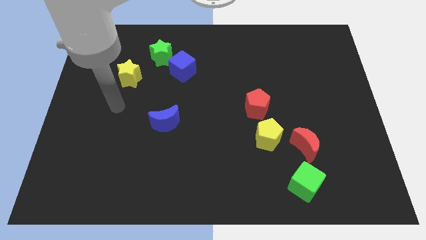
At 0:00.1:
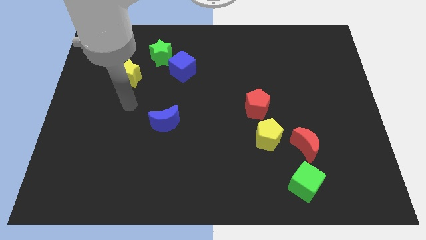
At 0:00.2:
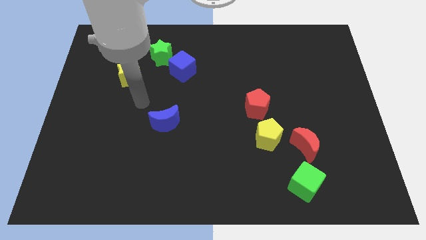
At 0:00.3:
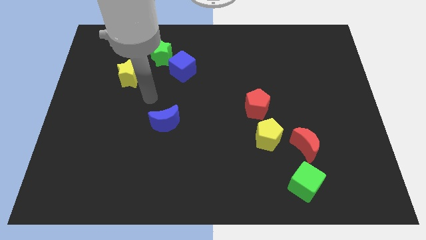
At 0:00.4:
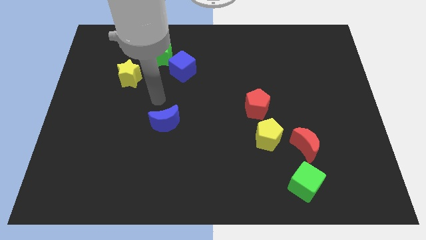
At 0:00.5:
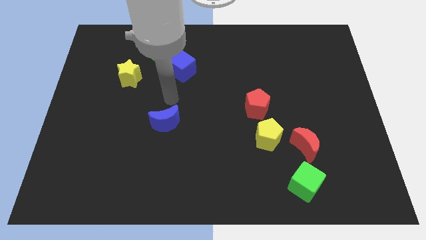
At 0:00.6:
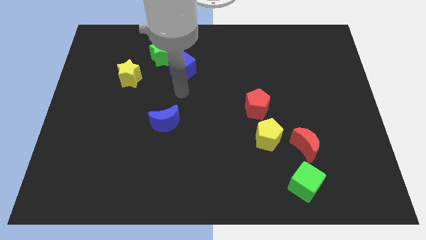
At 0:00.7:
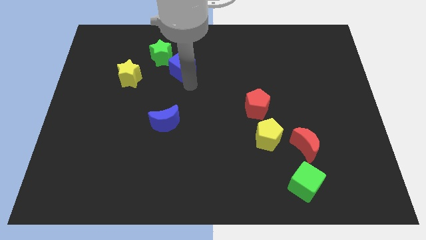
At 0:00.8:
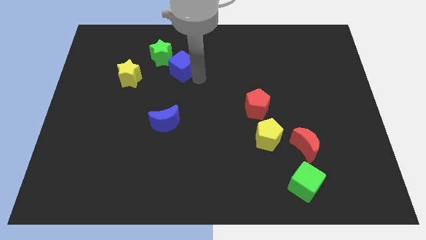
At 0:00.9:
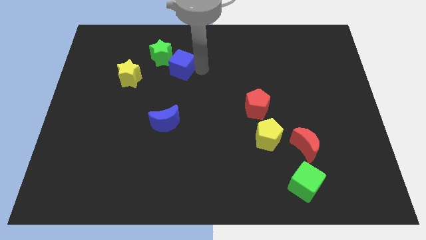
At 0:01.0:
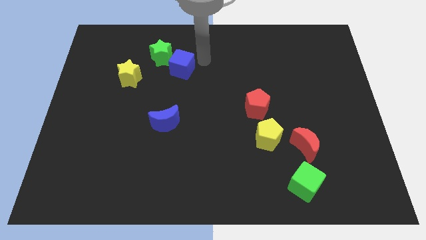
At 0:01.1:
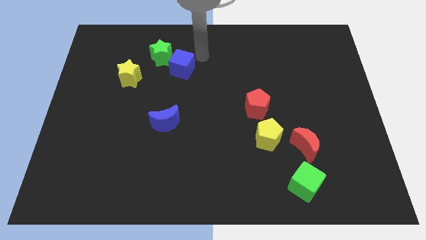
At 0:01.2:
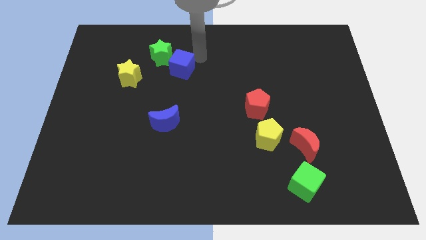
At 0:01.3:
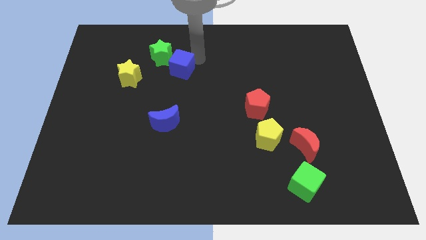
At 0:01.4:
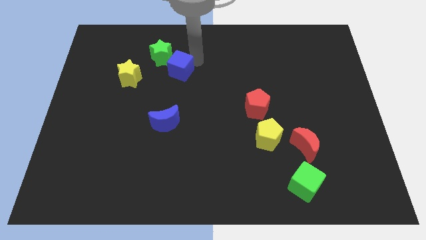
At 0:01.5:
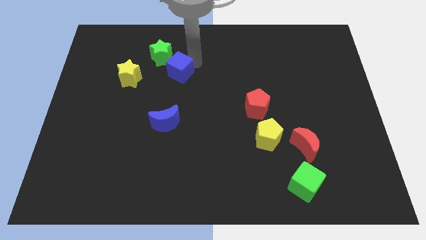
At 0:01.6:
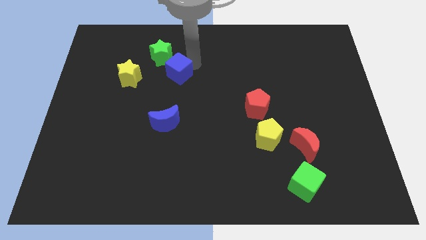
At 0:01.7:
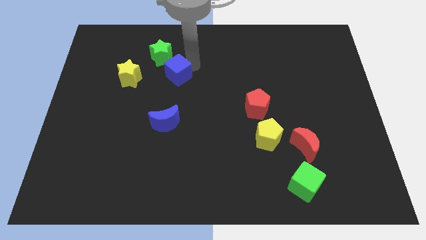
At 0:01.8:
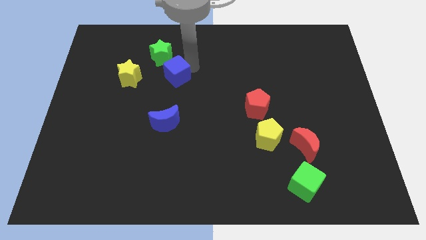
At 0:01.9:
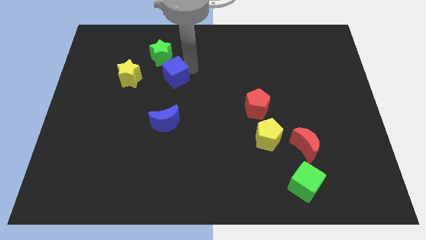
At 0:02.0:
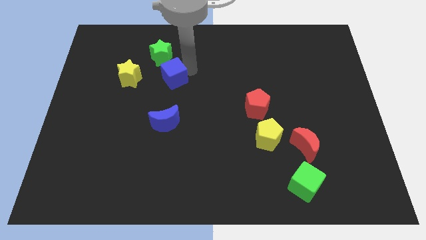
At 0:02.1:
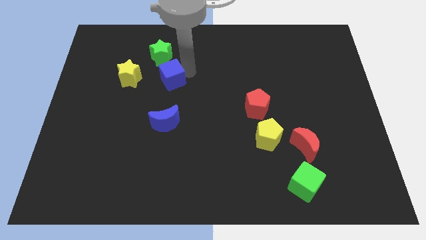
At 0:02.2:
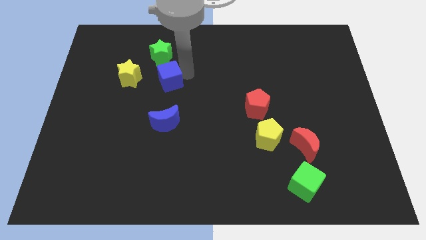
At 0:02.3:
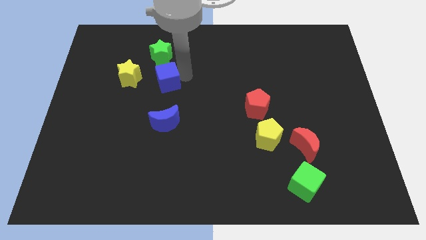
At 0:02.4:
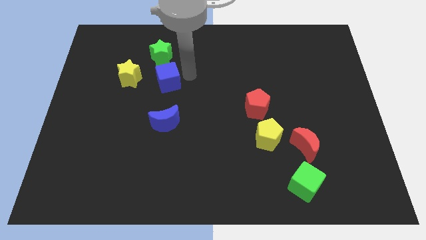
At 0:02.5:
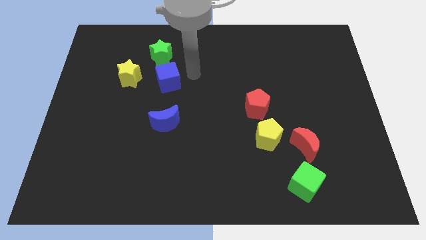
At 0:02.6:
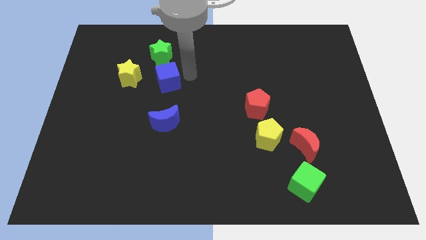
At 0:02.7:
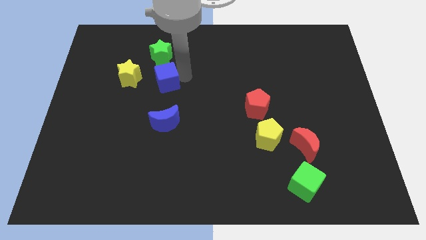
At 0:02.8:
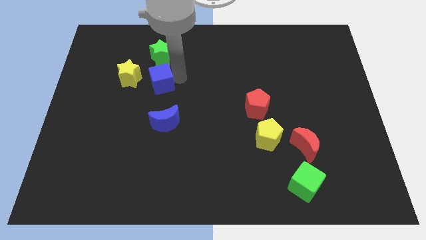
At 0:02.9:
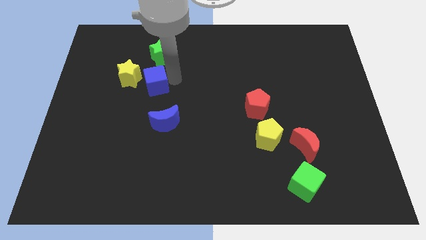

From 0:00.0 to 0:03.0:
slightly push the blue cube down and then to the left

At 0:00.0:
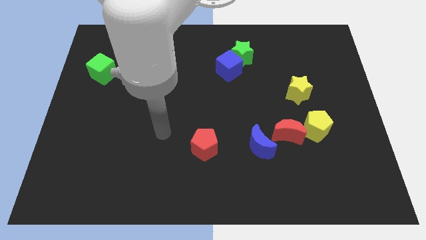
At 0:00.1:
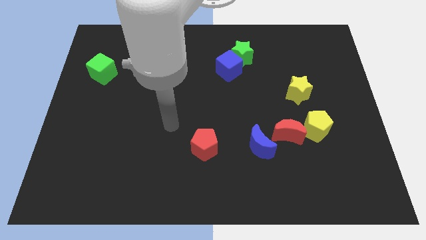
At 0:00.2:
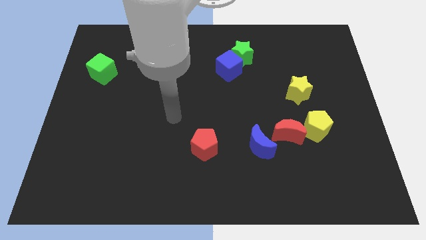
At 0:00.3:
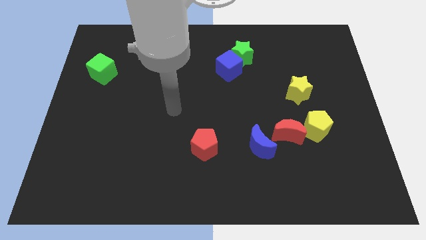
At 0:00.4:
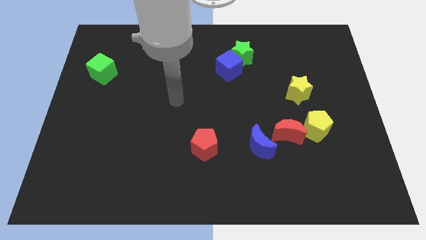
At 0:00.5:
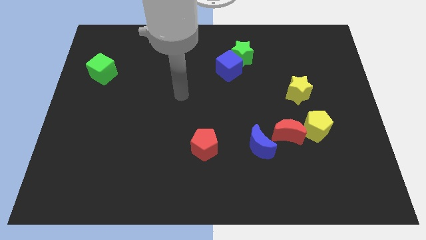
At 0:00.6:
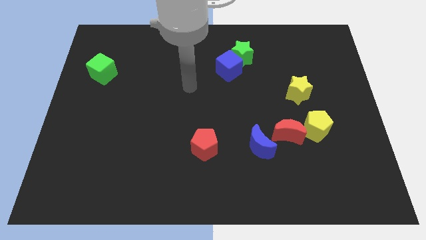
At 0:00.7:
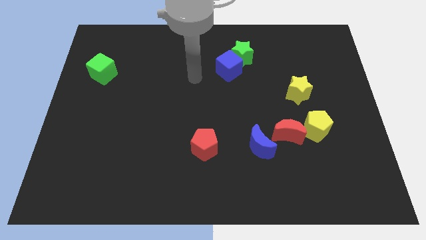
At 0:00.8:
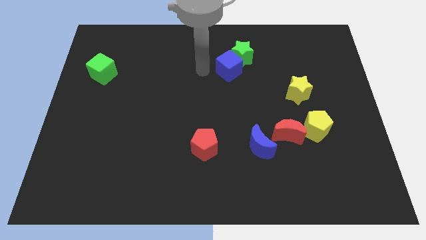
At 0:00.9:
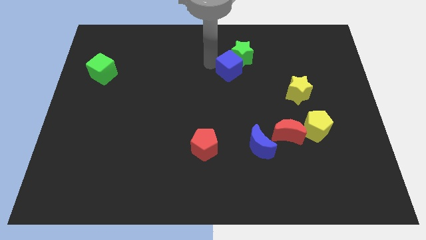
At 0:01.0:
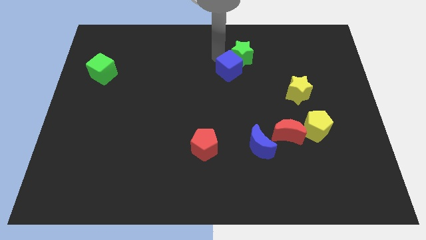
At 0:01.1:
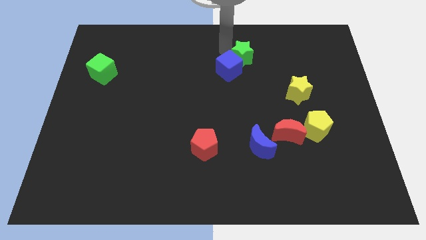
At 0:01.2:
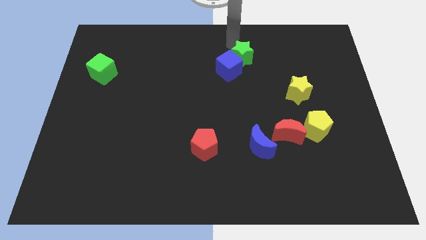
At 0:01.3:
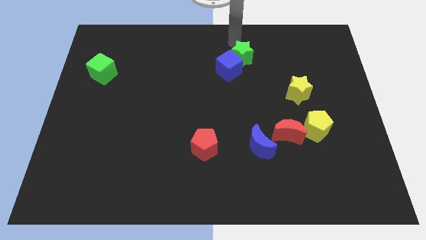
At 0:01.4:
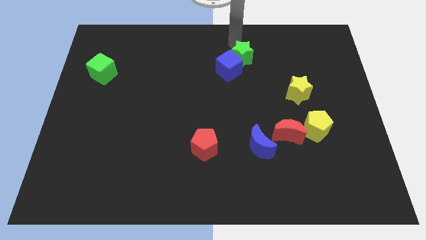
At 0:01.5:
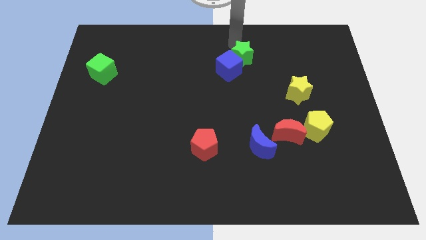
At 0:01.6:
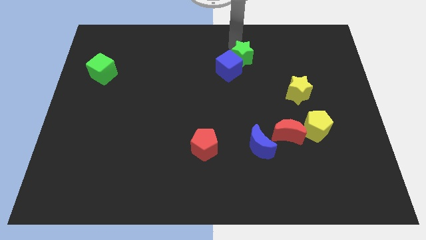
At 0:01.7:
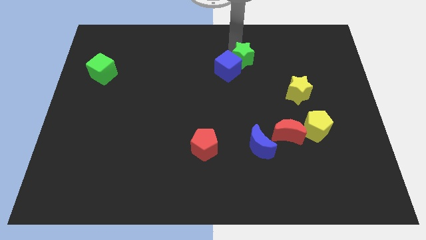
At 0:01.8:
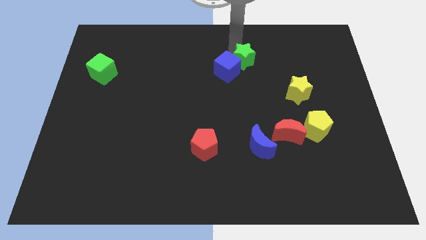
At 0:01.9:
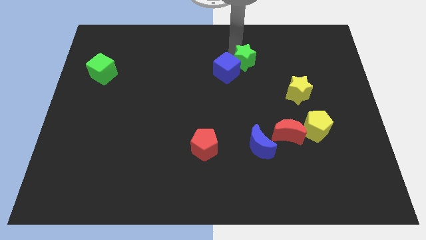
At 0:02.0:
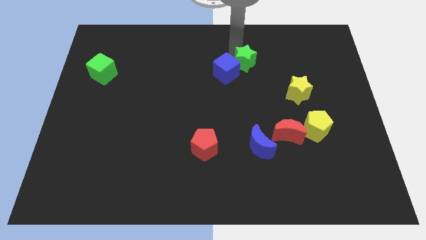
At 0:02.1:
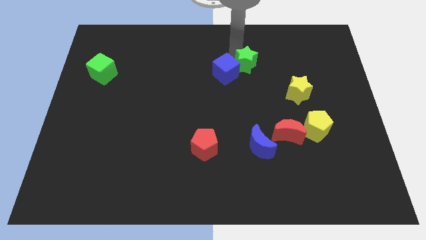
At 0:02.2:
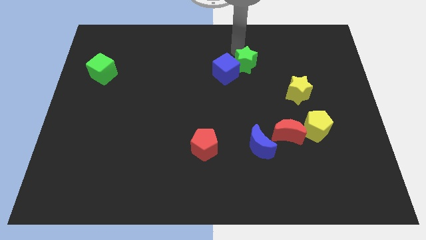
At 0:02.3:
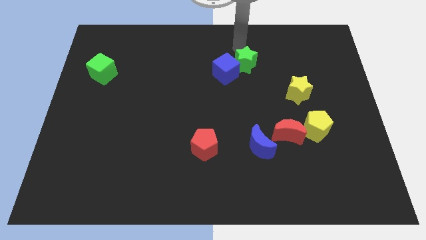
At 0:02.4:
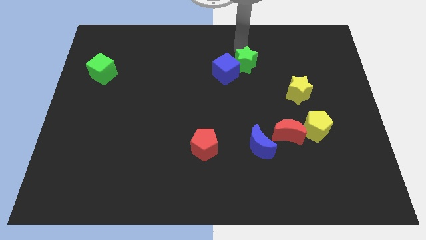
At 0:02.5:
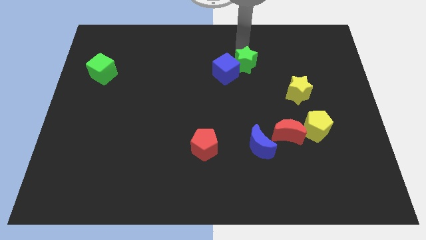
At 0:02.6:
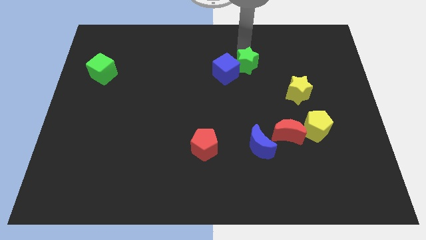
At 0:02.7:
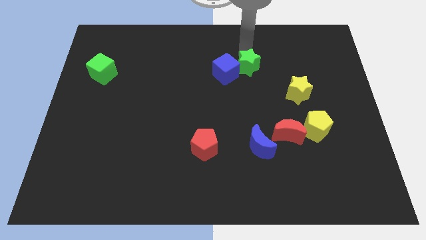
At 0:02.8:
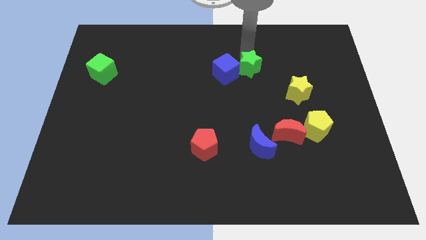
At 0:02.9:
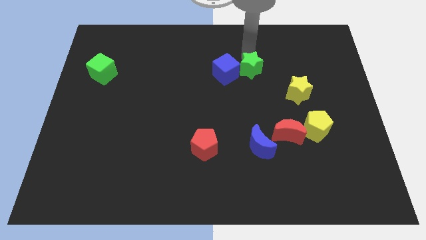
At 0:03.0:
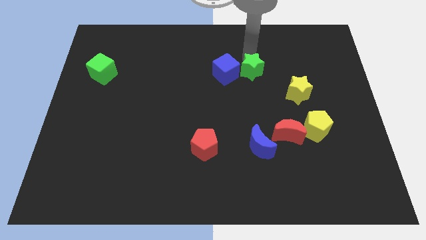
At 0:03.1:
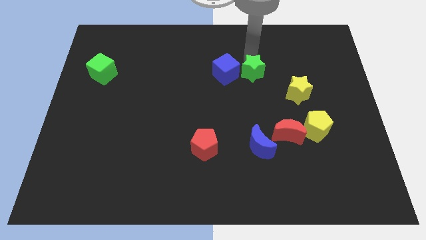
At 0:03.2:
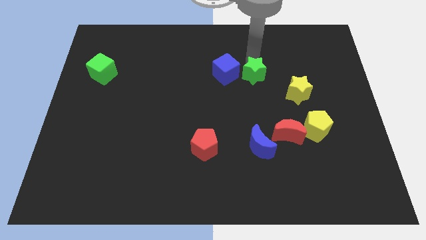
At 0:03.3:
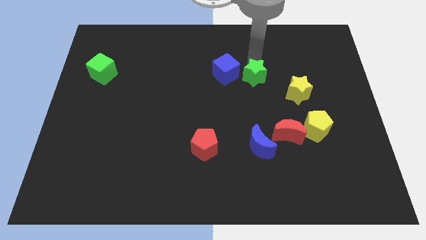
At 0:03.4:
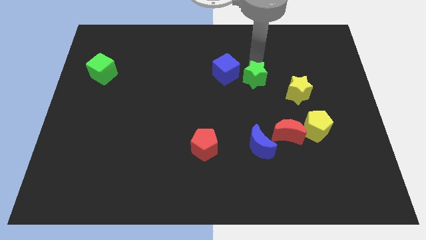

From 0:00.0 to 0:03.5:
slide the green star downwards a little bit

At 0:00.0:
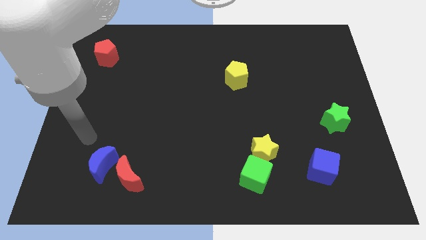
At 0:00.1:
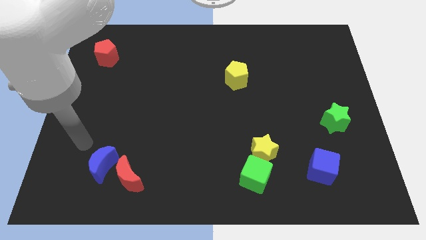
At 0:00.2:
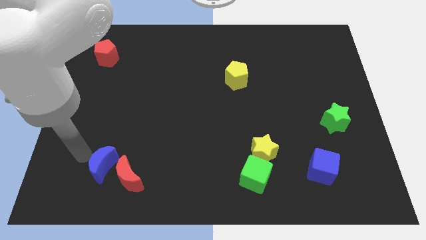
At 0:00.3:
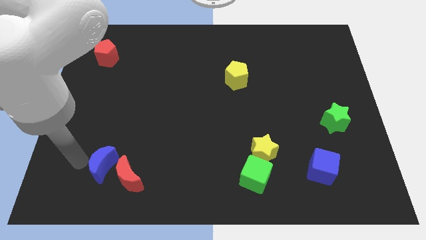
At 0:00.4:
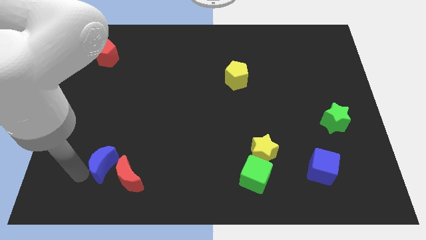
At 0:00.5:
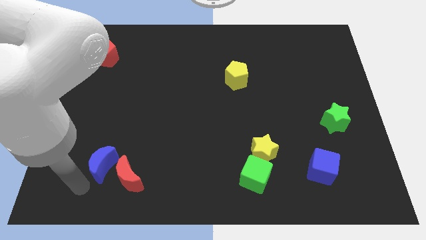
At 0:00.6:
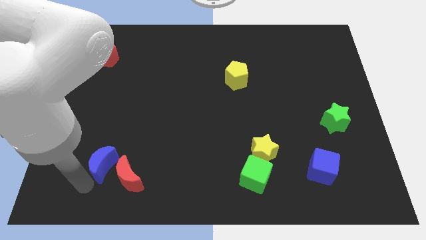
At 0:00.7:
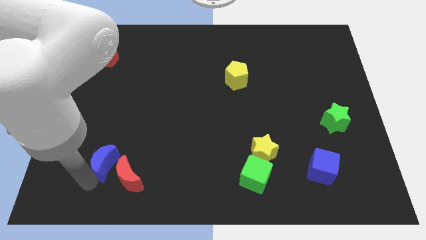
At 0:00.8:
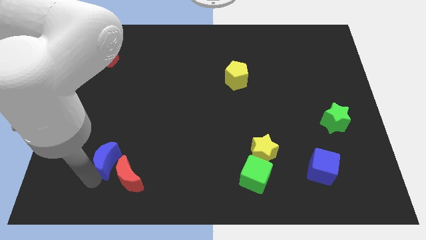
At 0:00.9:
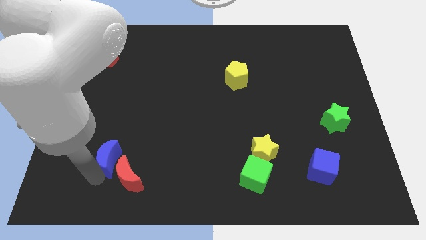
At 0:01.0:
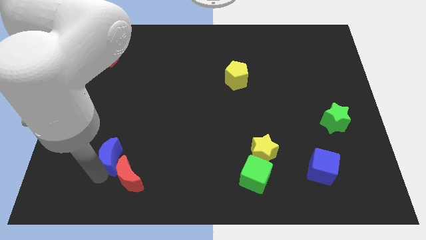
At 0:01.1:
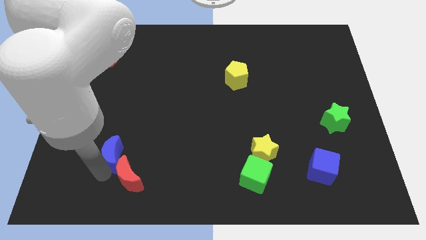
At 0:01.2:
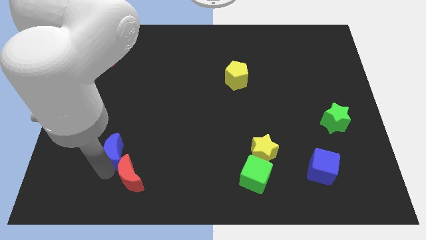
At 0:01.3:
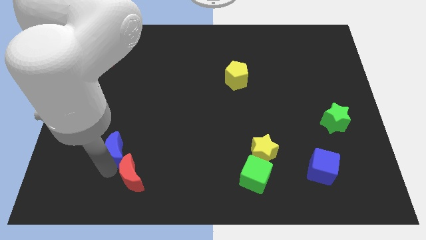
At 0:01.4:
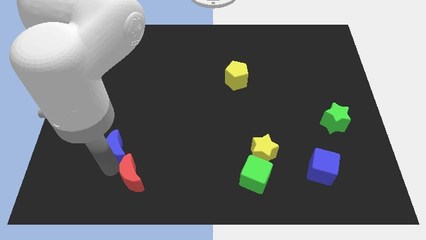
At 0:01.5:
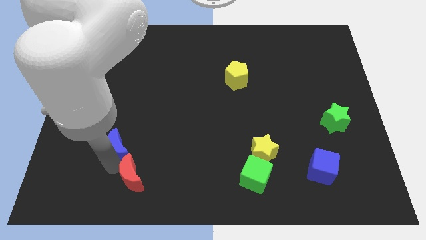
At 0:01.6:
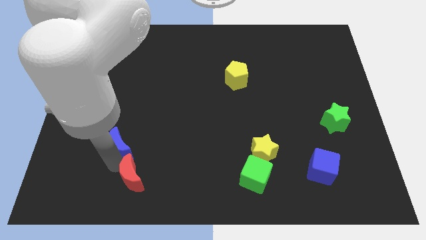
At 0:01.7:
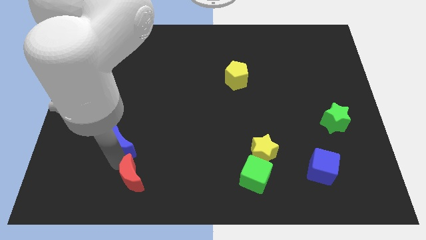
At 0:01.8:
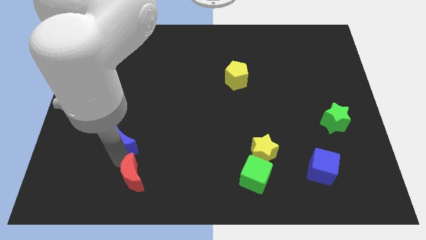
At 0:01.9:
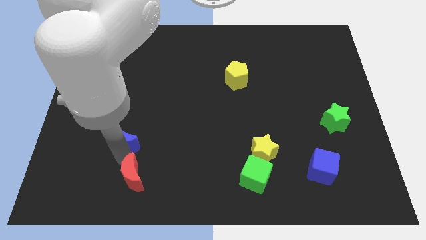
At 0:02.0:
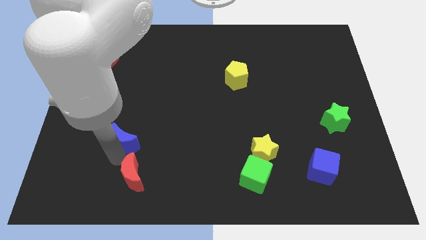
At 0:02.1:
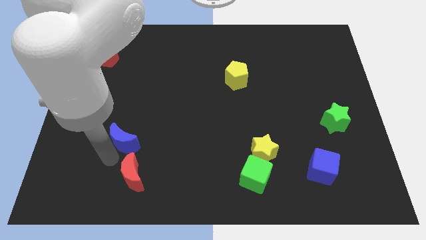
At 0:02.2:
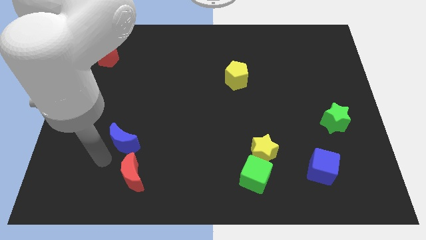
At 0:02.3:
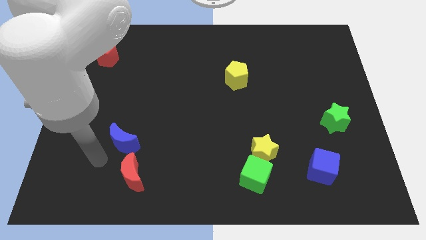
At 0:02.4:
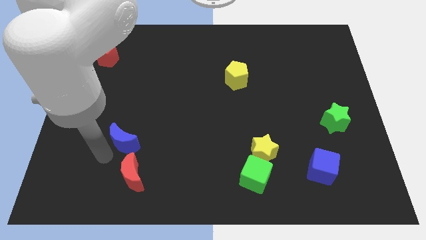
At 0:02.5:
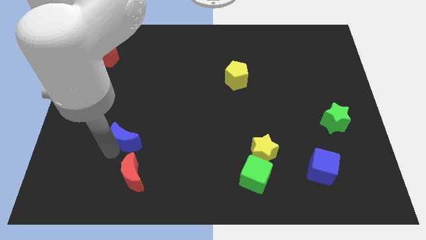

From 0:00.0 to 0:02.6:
slightly move the blue moon diagonally up and right
